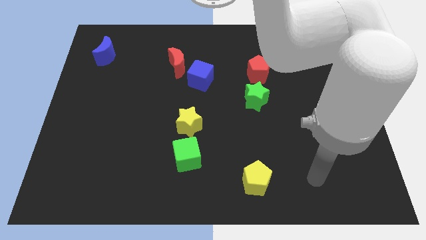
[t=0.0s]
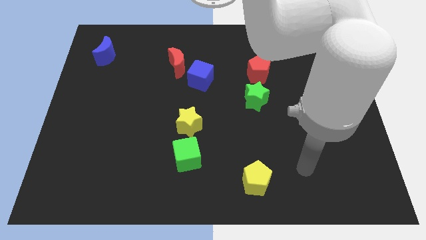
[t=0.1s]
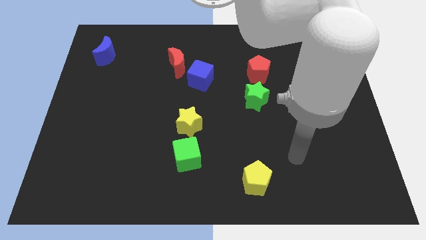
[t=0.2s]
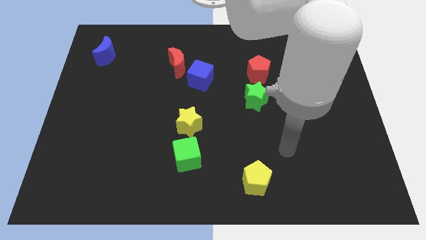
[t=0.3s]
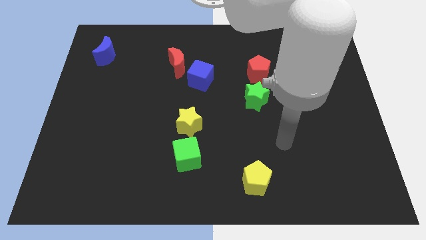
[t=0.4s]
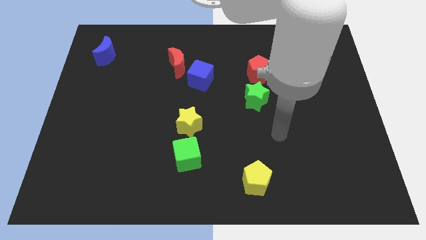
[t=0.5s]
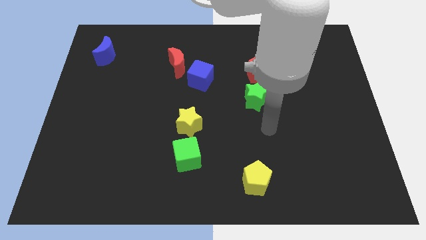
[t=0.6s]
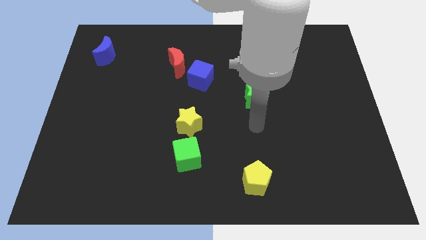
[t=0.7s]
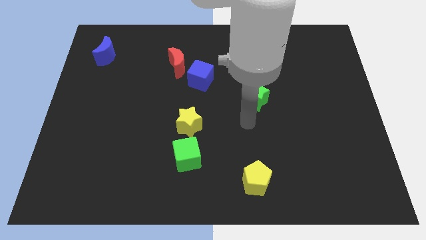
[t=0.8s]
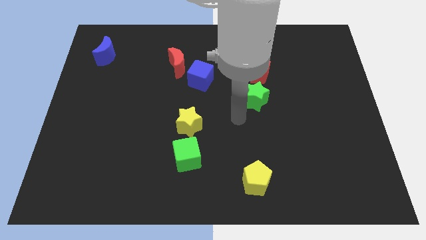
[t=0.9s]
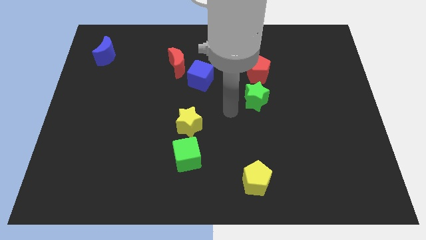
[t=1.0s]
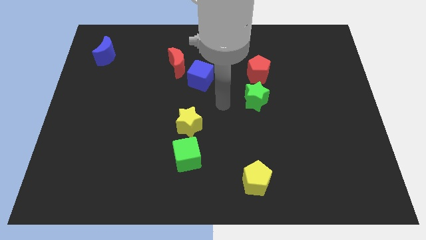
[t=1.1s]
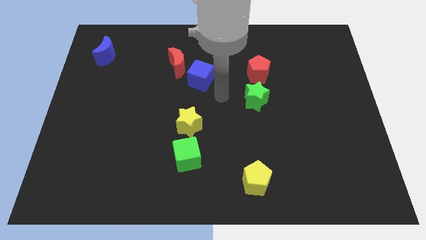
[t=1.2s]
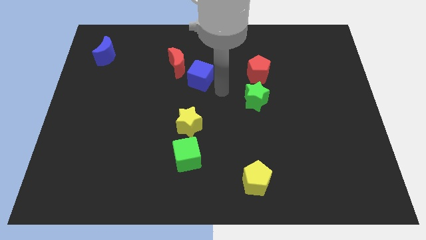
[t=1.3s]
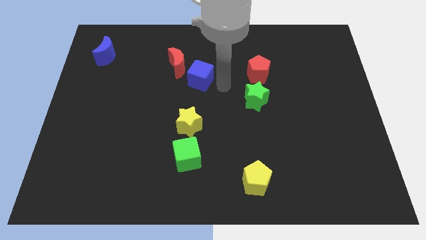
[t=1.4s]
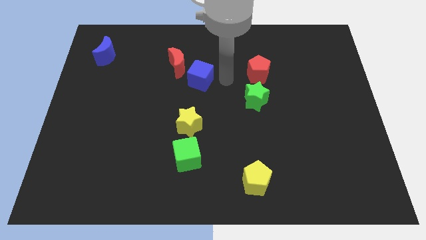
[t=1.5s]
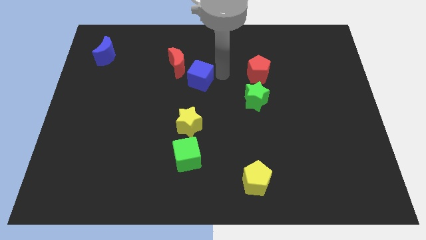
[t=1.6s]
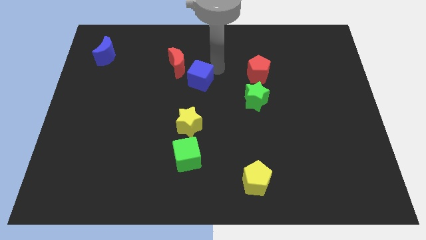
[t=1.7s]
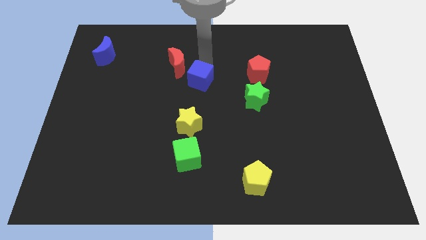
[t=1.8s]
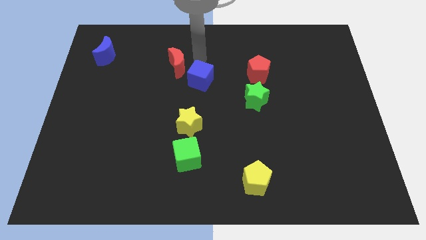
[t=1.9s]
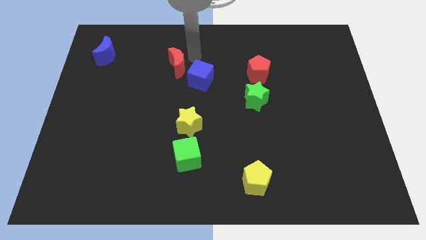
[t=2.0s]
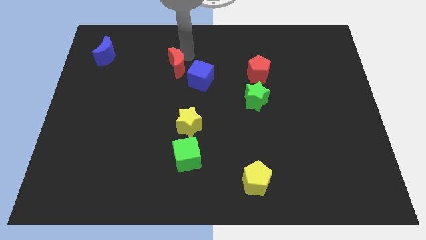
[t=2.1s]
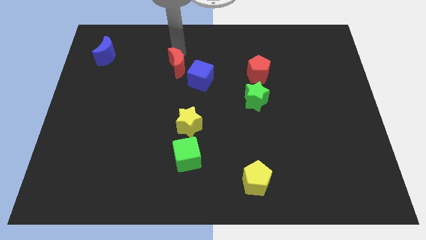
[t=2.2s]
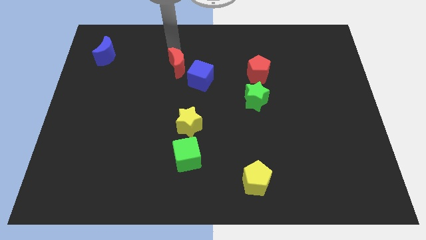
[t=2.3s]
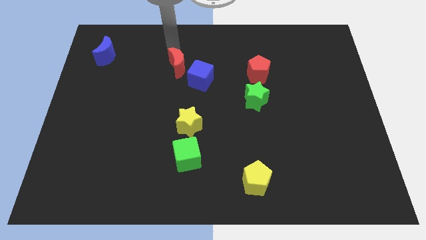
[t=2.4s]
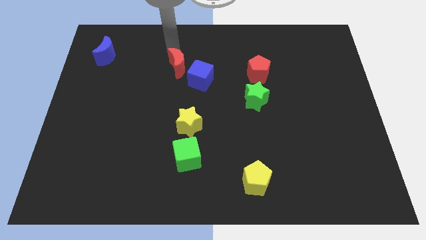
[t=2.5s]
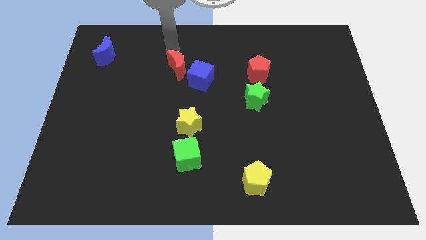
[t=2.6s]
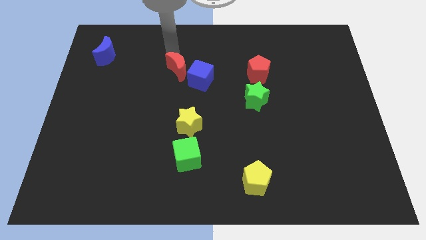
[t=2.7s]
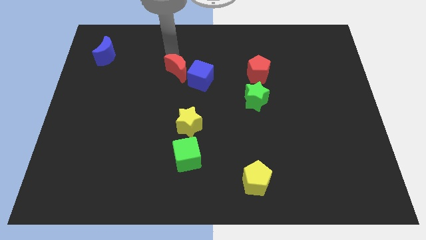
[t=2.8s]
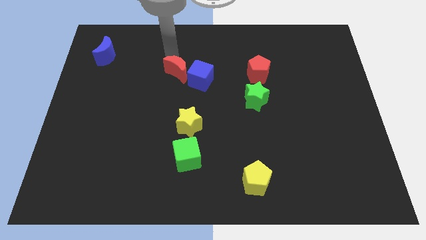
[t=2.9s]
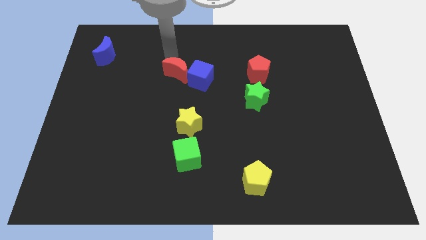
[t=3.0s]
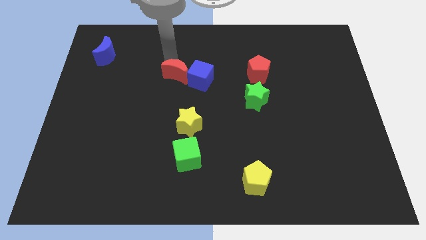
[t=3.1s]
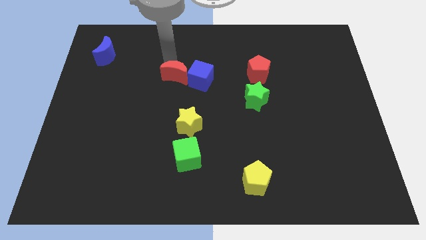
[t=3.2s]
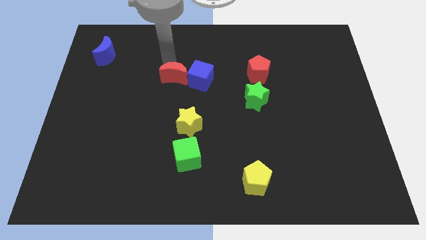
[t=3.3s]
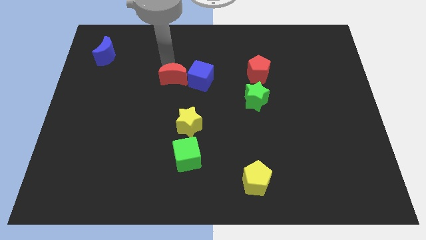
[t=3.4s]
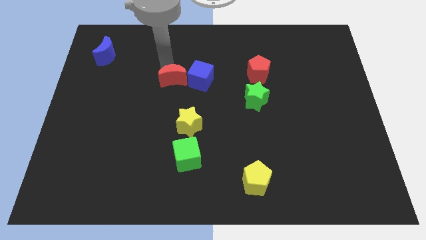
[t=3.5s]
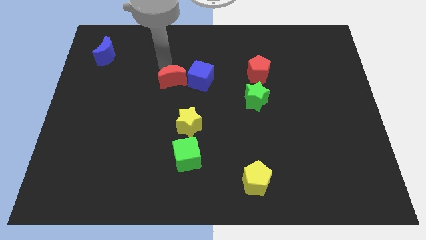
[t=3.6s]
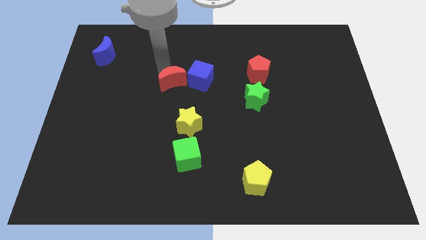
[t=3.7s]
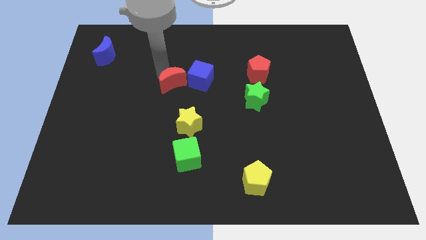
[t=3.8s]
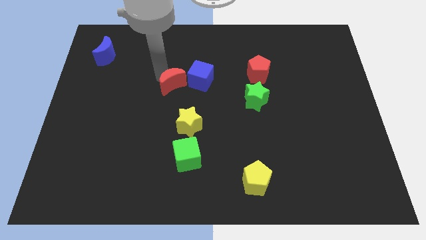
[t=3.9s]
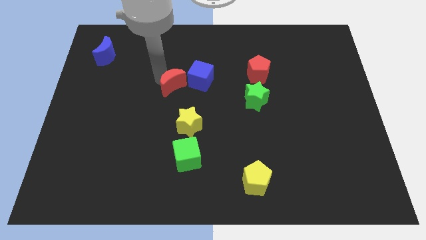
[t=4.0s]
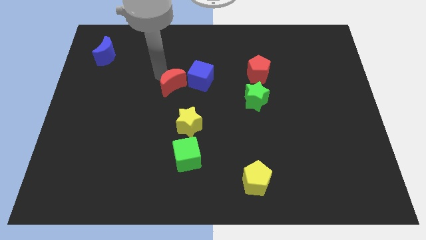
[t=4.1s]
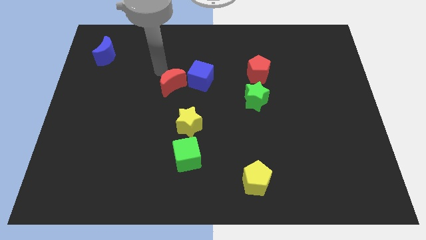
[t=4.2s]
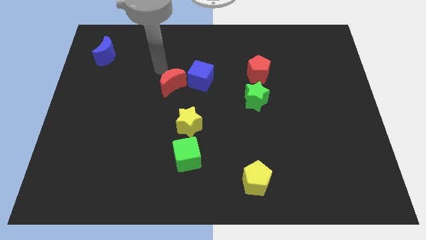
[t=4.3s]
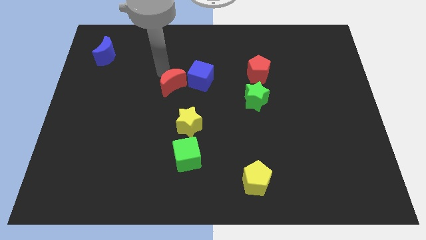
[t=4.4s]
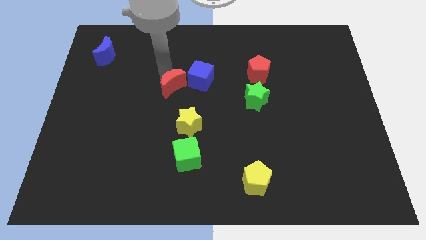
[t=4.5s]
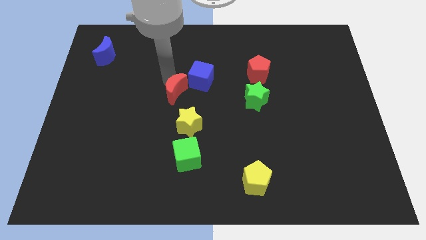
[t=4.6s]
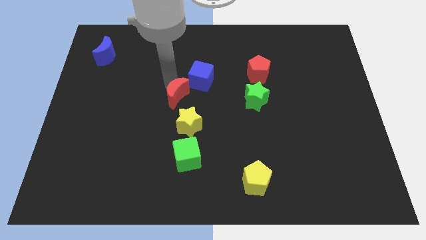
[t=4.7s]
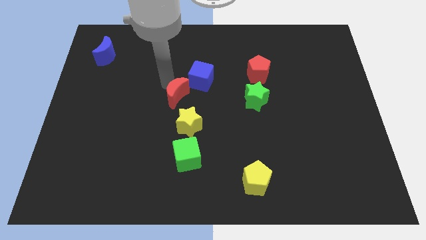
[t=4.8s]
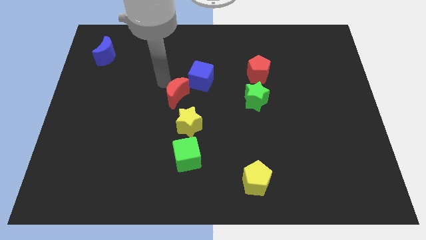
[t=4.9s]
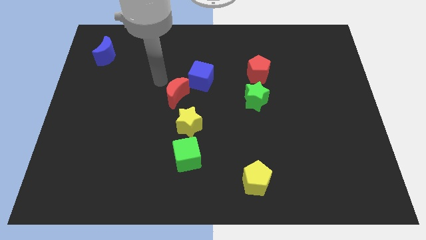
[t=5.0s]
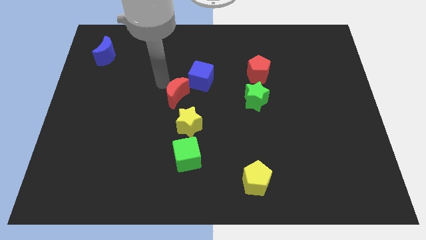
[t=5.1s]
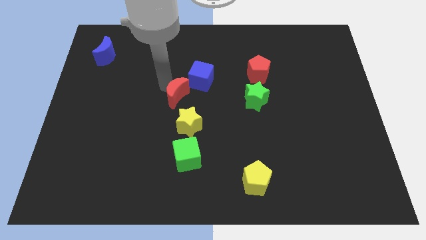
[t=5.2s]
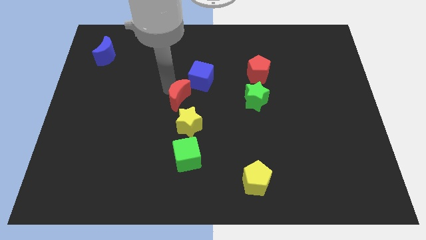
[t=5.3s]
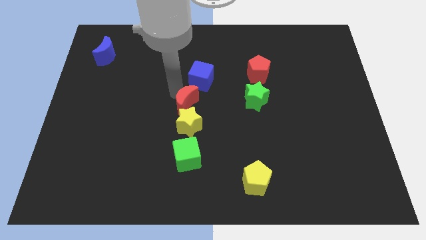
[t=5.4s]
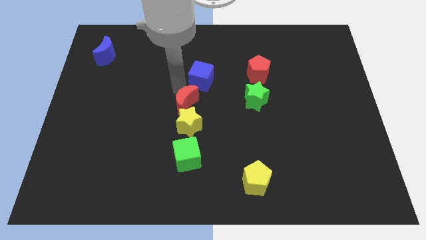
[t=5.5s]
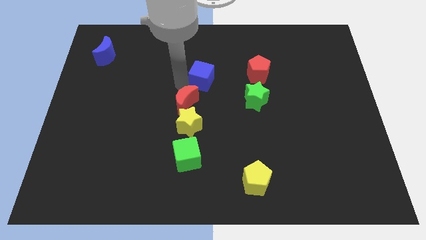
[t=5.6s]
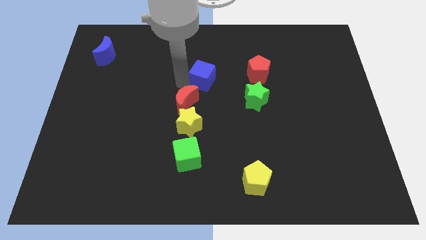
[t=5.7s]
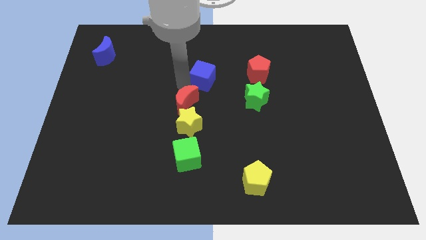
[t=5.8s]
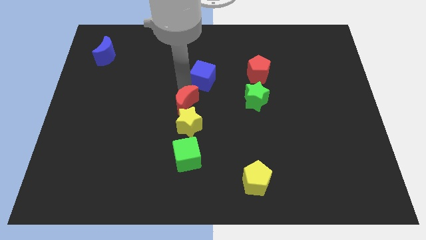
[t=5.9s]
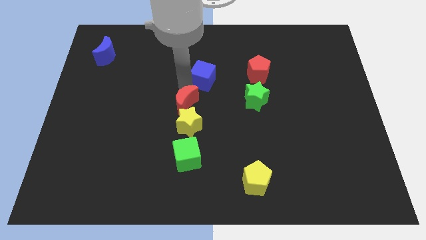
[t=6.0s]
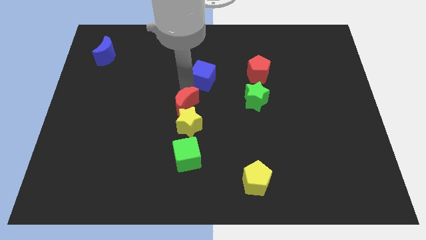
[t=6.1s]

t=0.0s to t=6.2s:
put the red moon to the yellow star

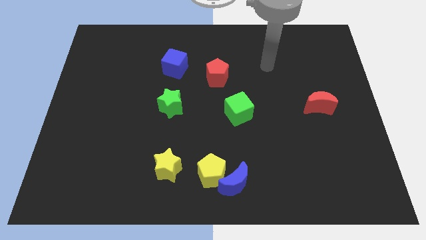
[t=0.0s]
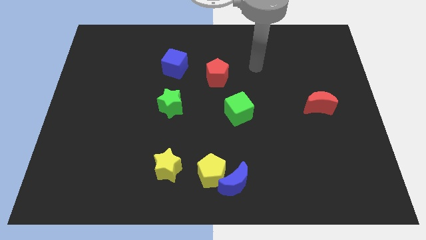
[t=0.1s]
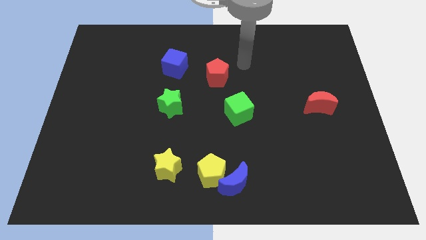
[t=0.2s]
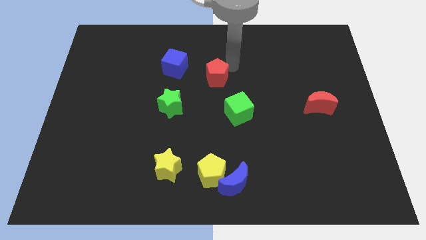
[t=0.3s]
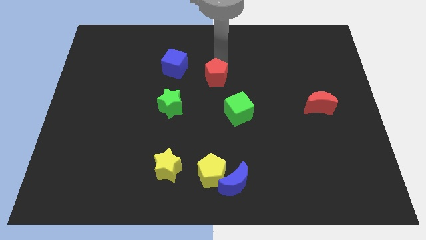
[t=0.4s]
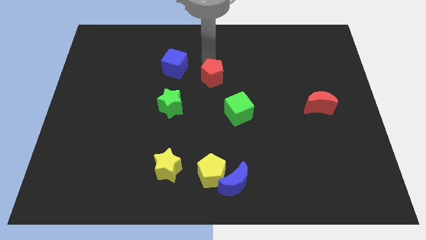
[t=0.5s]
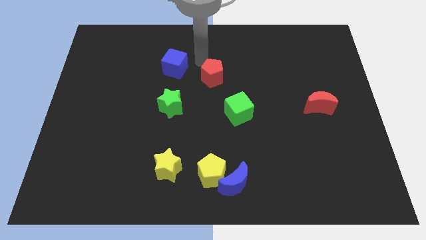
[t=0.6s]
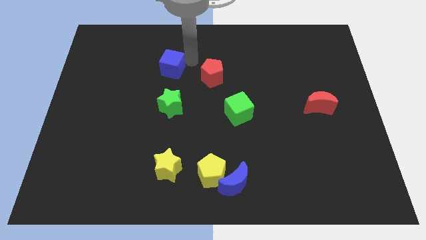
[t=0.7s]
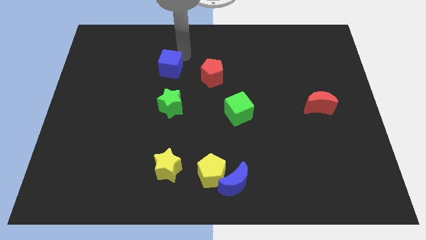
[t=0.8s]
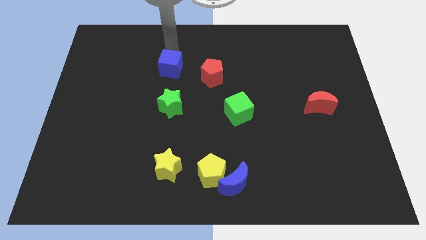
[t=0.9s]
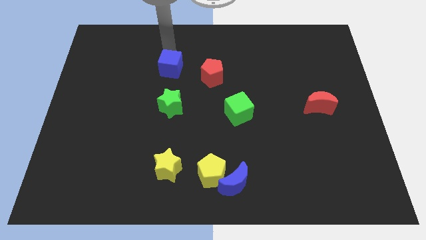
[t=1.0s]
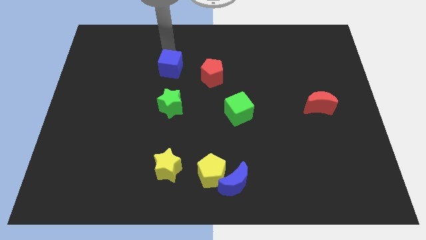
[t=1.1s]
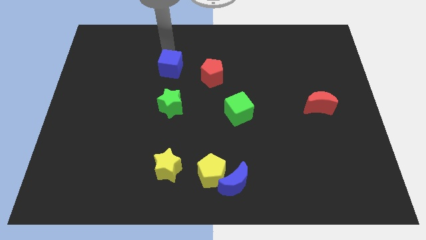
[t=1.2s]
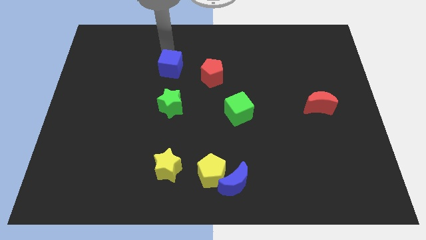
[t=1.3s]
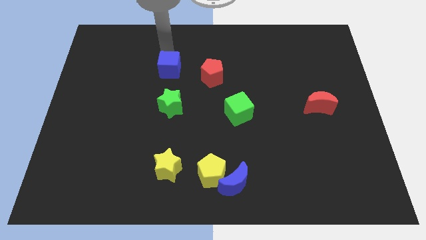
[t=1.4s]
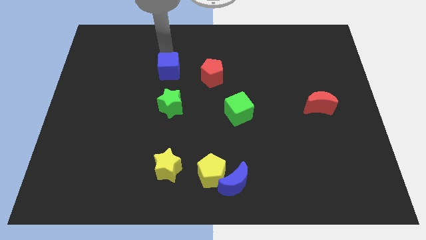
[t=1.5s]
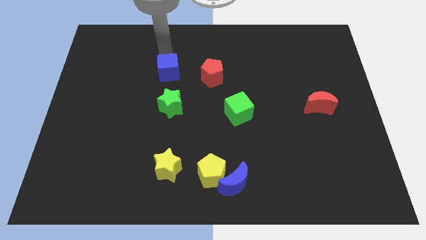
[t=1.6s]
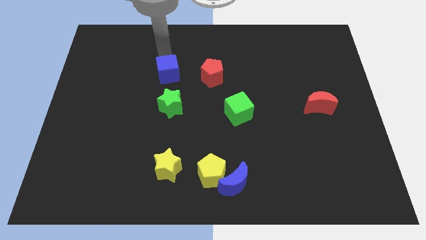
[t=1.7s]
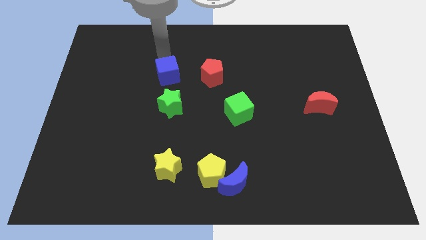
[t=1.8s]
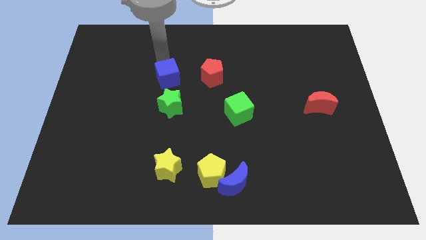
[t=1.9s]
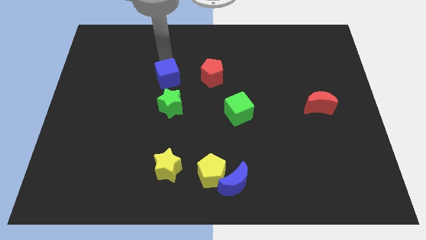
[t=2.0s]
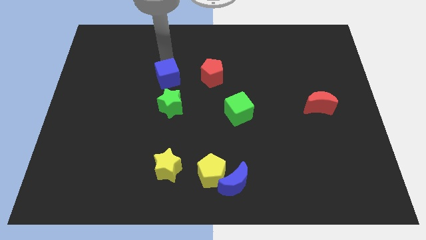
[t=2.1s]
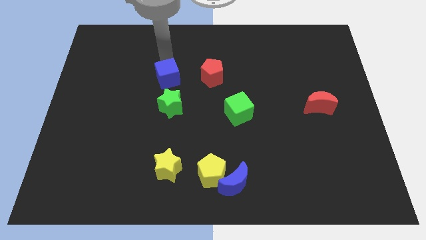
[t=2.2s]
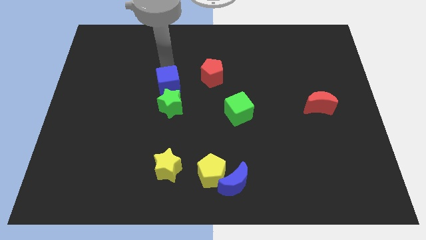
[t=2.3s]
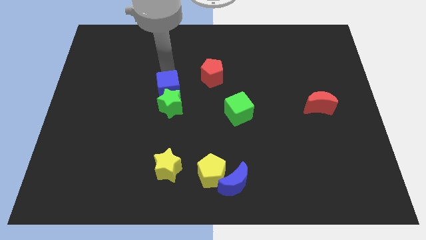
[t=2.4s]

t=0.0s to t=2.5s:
slide the blue cube close to the green star
